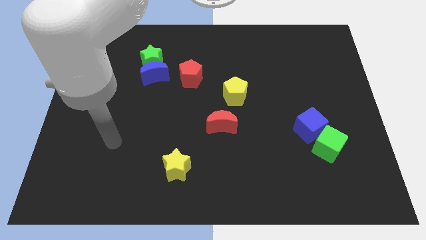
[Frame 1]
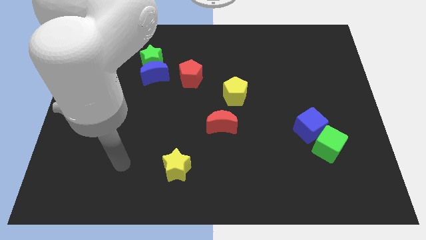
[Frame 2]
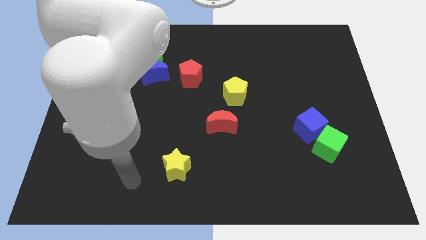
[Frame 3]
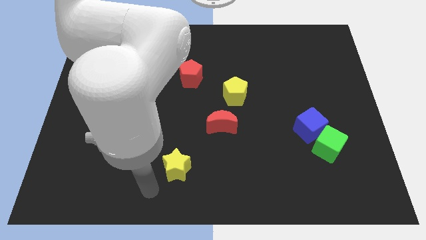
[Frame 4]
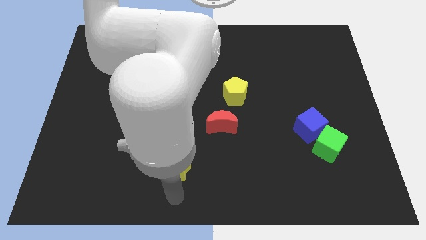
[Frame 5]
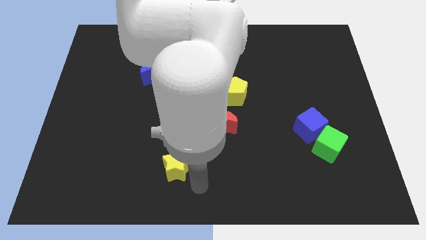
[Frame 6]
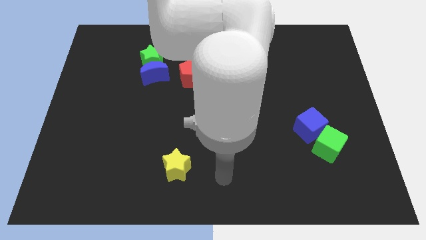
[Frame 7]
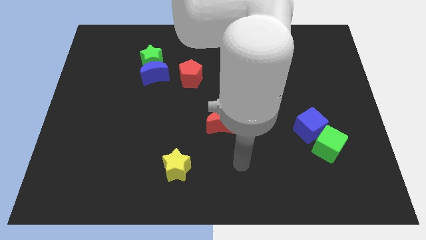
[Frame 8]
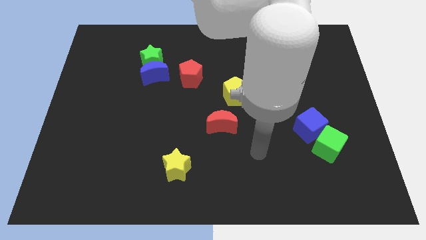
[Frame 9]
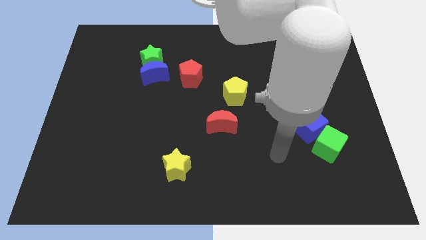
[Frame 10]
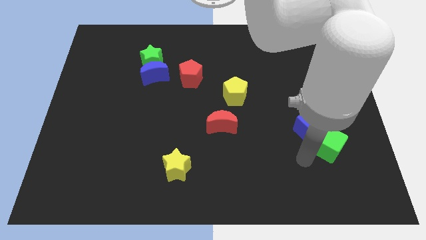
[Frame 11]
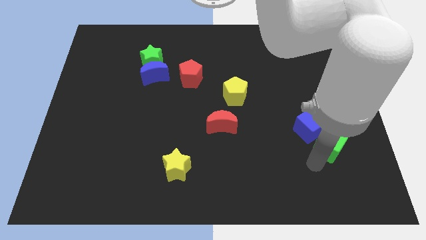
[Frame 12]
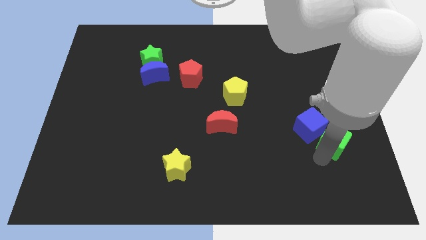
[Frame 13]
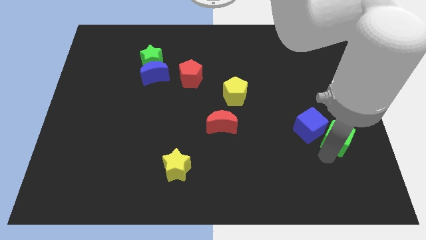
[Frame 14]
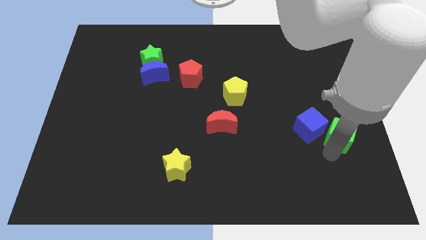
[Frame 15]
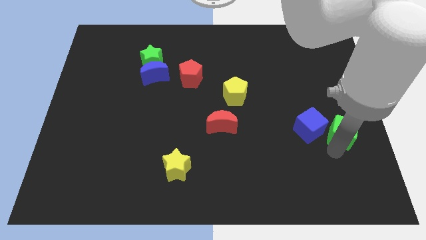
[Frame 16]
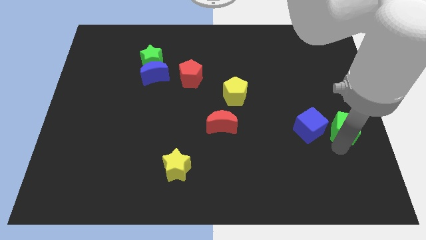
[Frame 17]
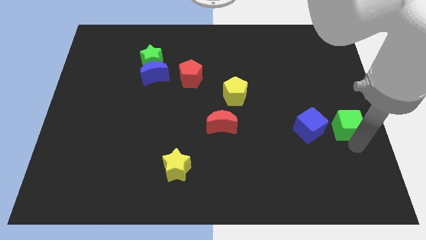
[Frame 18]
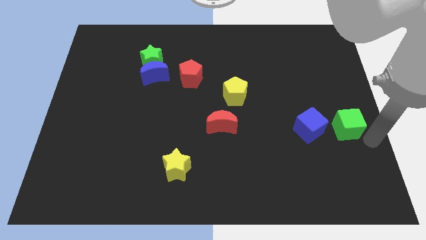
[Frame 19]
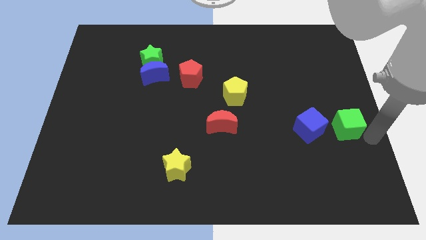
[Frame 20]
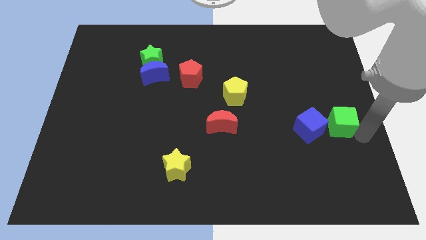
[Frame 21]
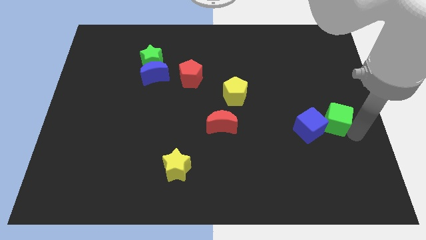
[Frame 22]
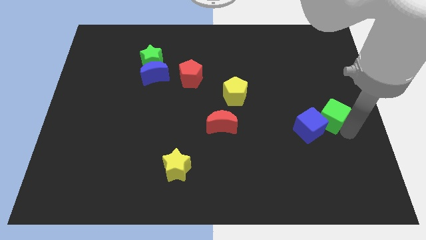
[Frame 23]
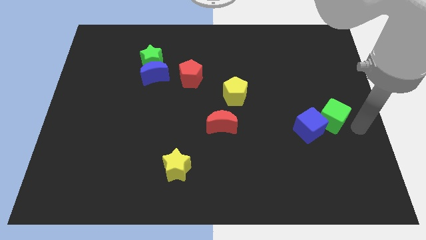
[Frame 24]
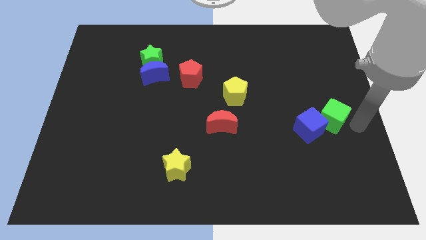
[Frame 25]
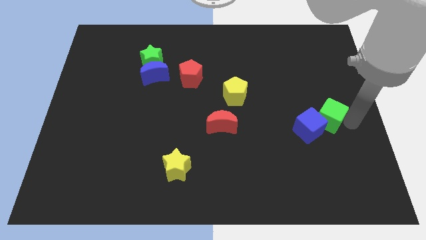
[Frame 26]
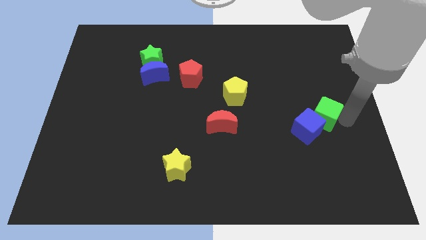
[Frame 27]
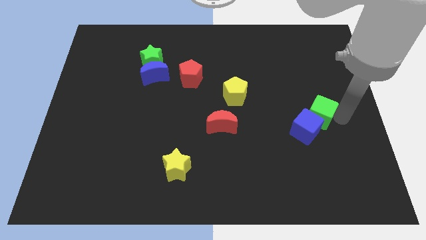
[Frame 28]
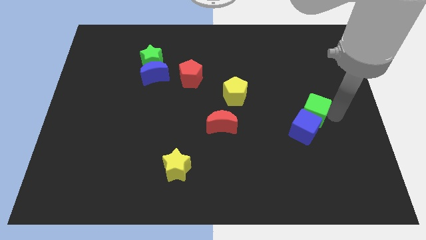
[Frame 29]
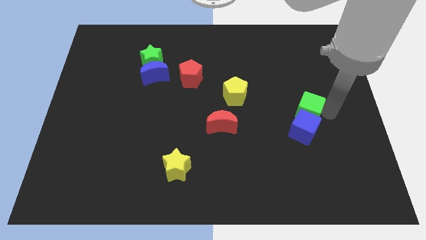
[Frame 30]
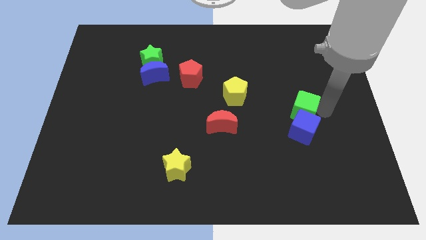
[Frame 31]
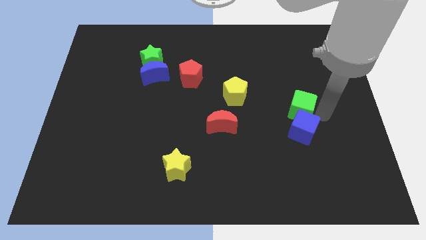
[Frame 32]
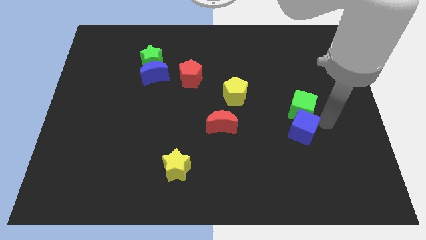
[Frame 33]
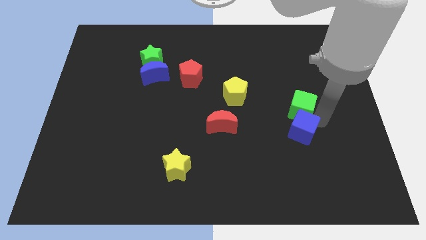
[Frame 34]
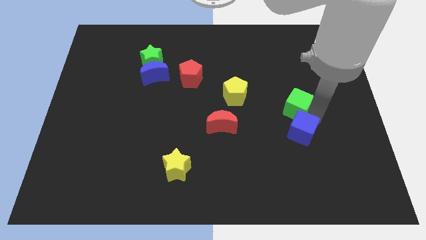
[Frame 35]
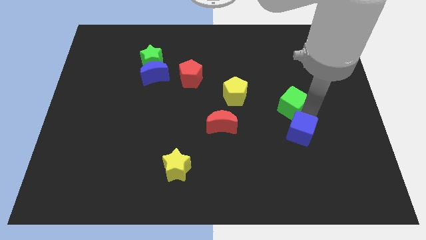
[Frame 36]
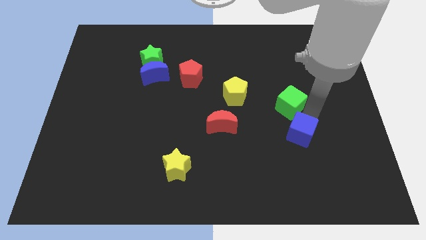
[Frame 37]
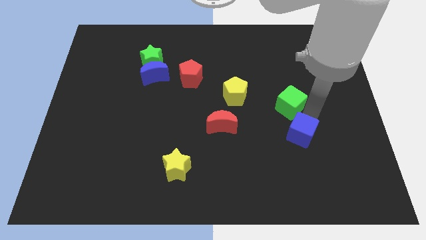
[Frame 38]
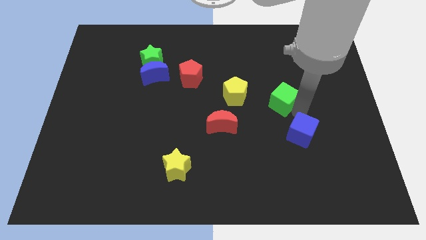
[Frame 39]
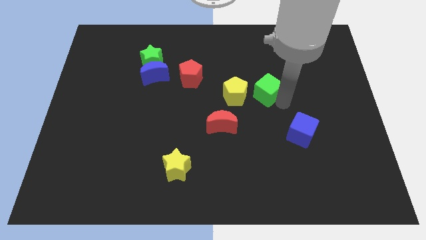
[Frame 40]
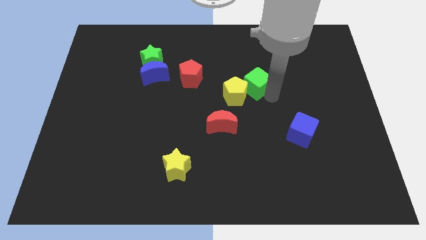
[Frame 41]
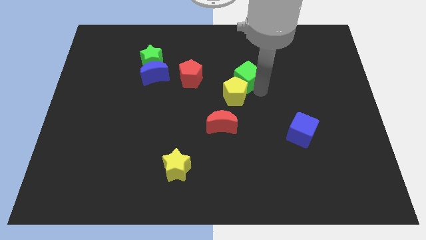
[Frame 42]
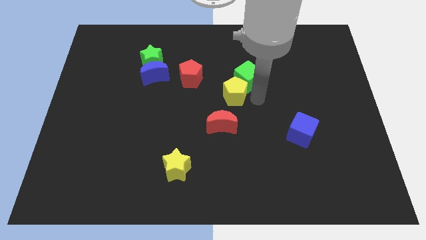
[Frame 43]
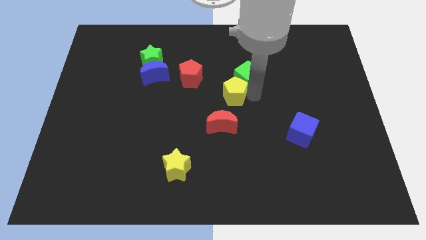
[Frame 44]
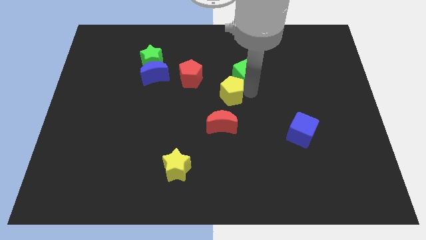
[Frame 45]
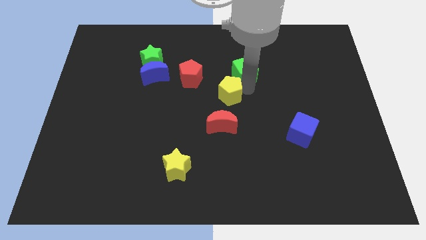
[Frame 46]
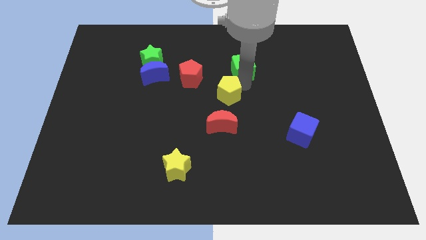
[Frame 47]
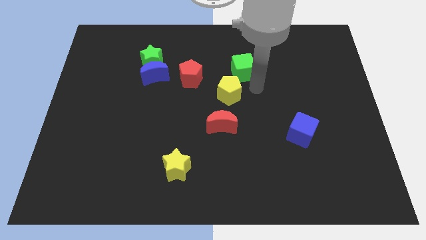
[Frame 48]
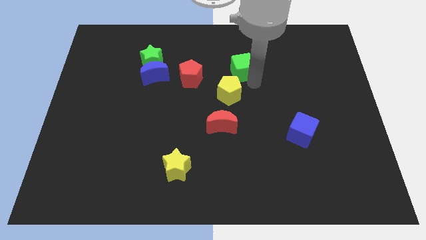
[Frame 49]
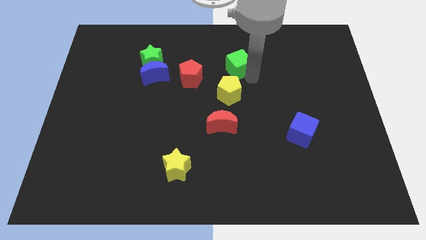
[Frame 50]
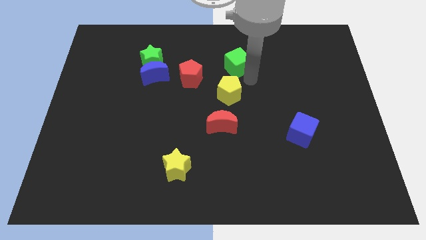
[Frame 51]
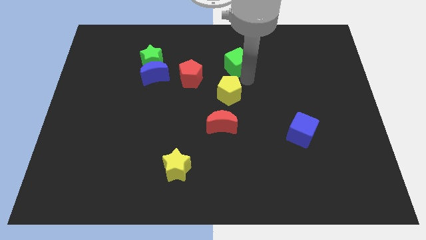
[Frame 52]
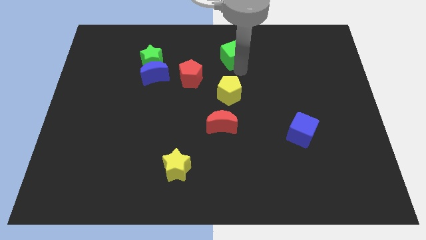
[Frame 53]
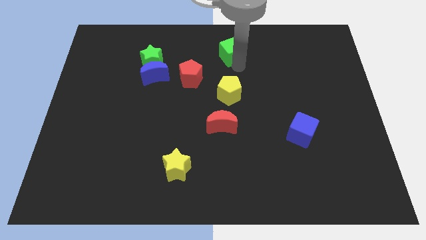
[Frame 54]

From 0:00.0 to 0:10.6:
push the green cube to the top
